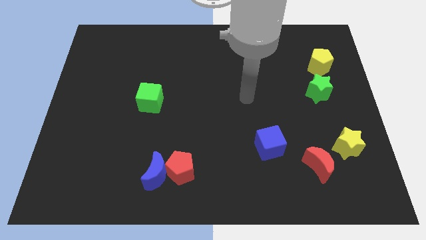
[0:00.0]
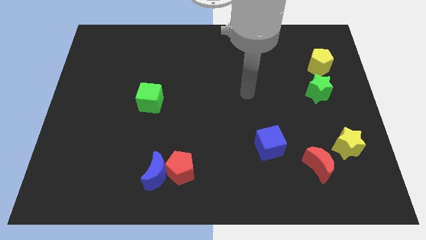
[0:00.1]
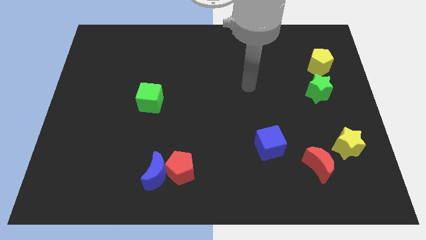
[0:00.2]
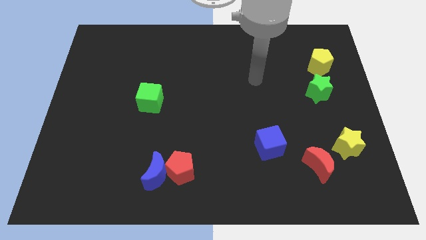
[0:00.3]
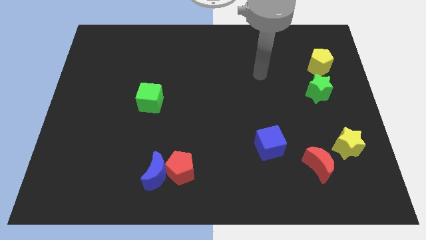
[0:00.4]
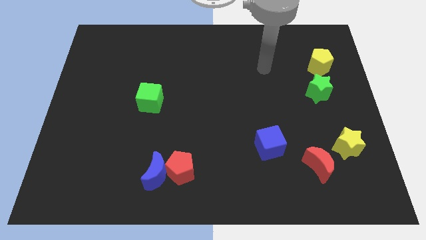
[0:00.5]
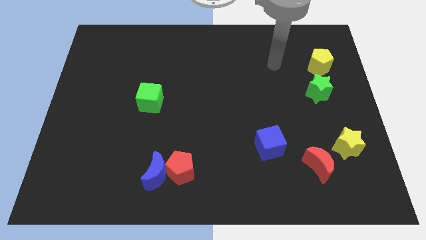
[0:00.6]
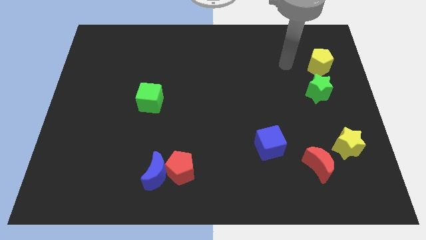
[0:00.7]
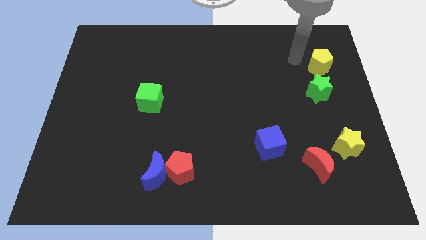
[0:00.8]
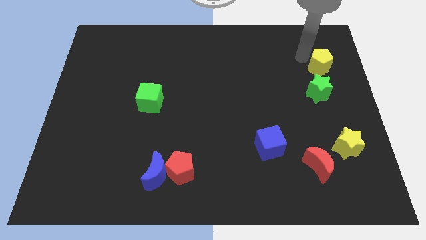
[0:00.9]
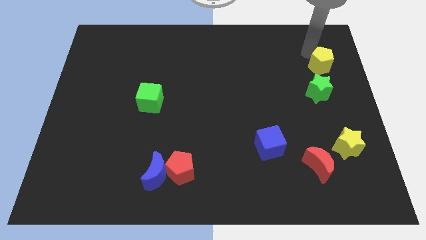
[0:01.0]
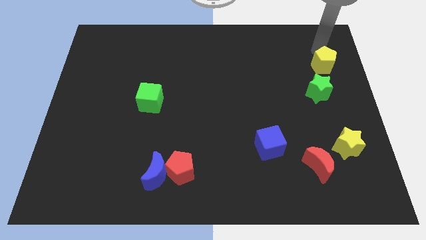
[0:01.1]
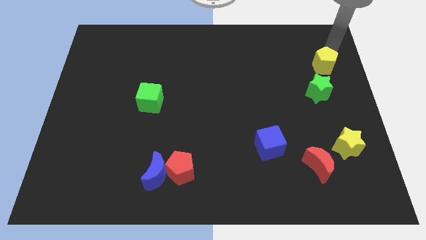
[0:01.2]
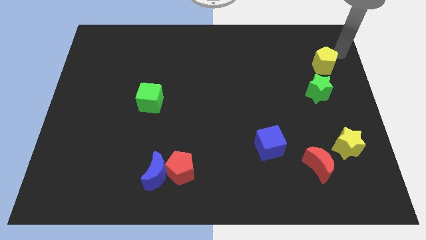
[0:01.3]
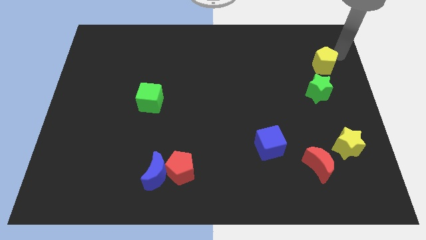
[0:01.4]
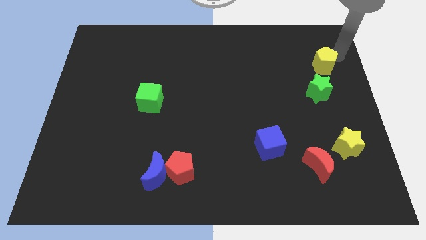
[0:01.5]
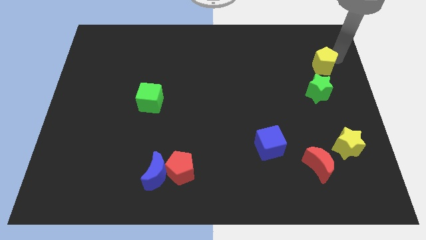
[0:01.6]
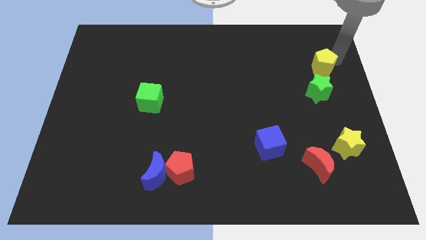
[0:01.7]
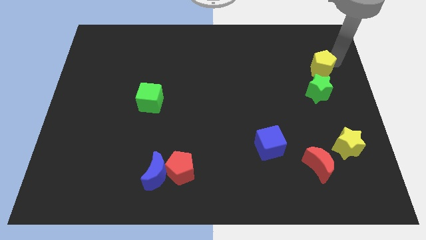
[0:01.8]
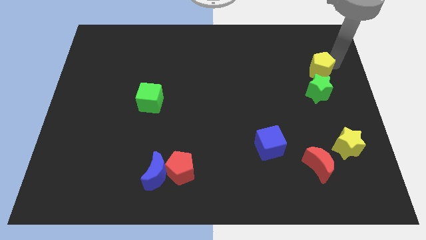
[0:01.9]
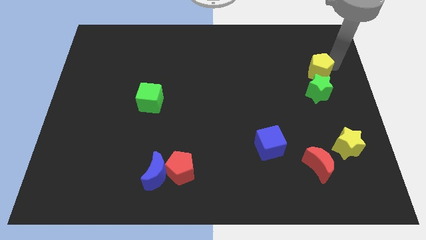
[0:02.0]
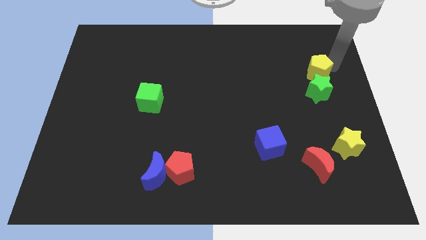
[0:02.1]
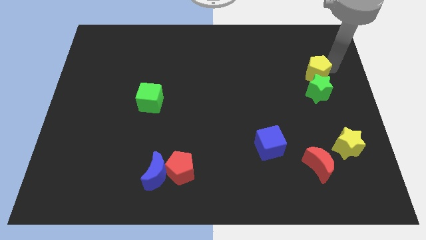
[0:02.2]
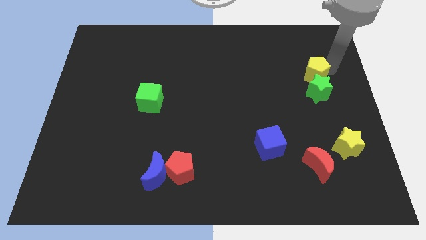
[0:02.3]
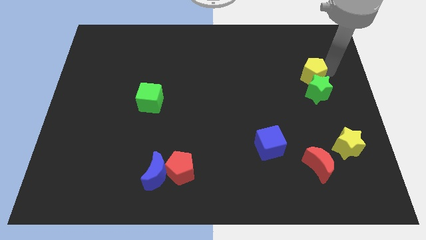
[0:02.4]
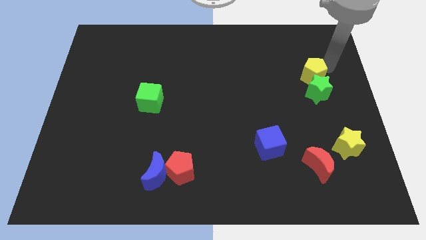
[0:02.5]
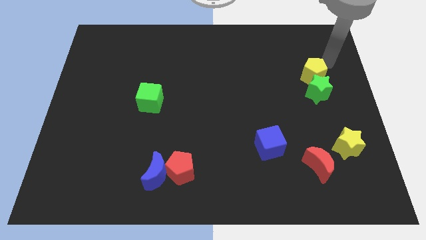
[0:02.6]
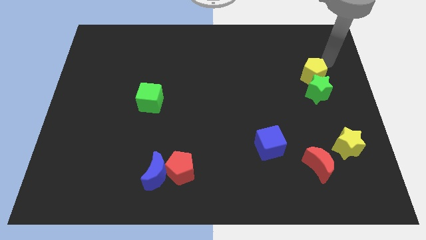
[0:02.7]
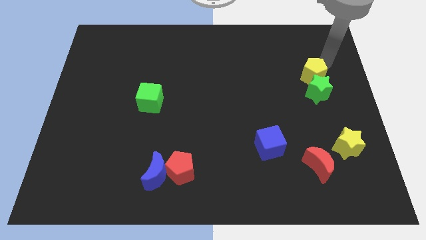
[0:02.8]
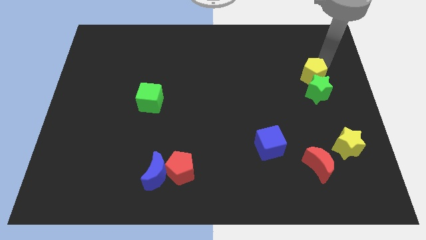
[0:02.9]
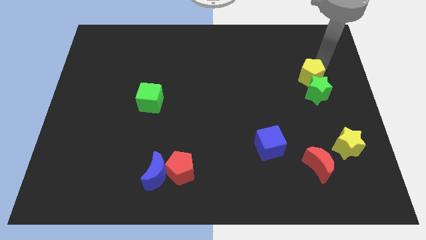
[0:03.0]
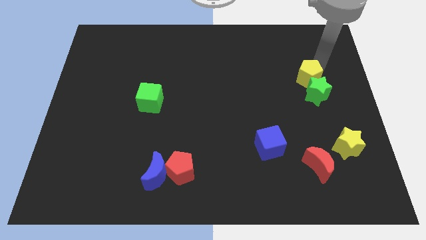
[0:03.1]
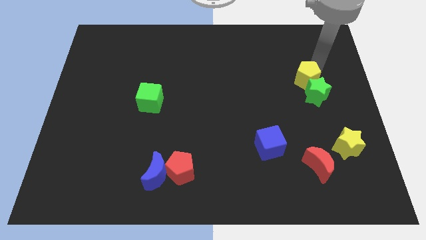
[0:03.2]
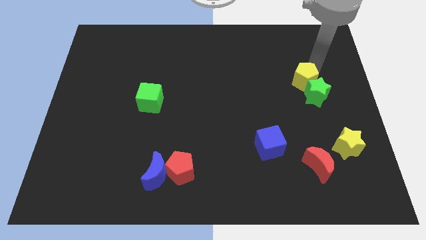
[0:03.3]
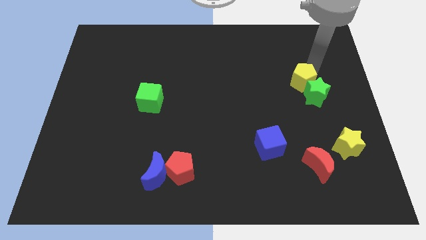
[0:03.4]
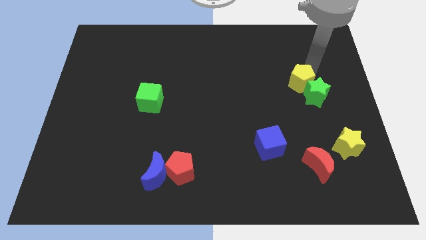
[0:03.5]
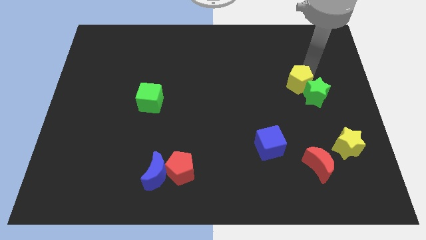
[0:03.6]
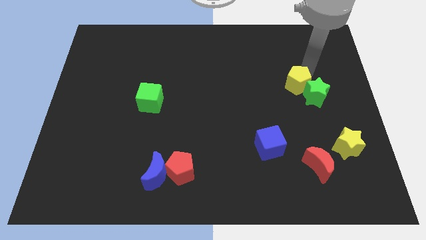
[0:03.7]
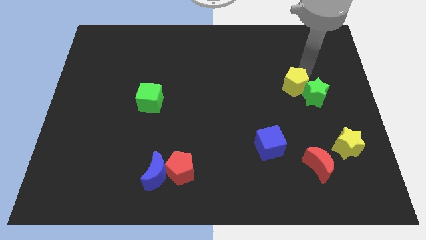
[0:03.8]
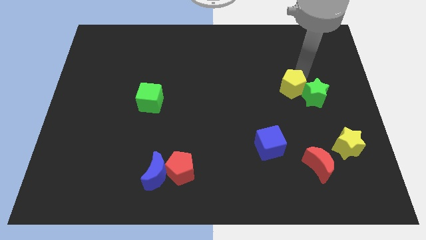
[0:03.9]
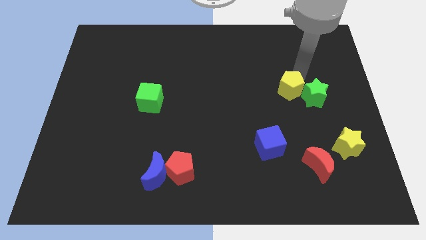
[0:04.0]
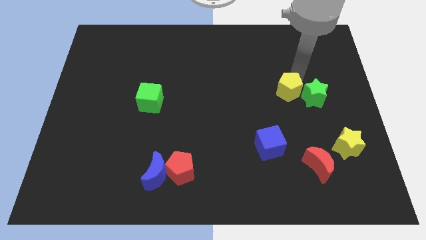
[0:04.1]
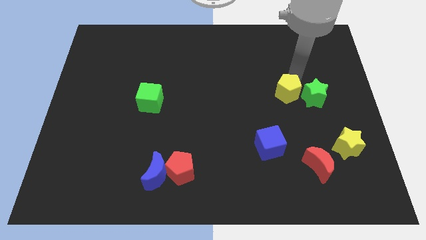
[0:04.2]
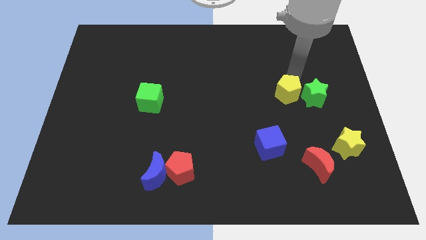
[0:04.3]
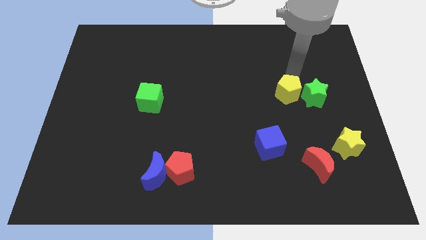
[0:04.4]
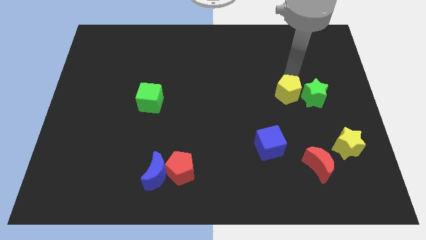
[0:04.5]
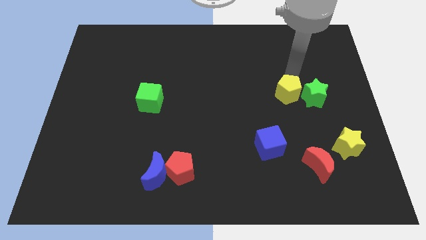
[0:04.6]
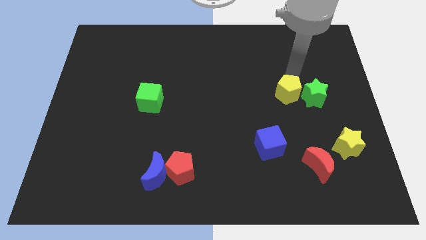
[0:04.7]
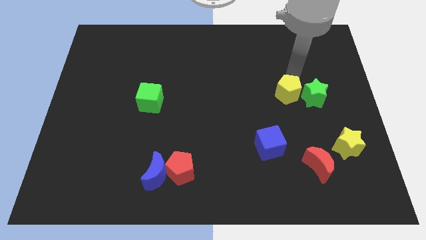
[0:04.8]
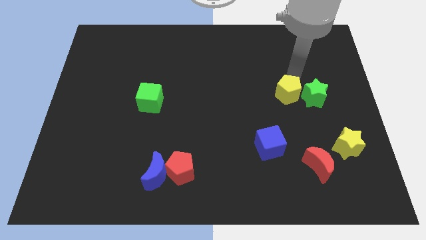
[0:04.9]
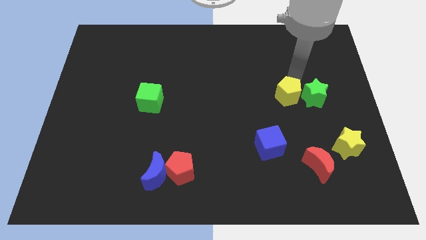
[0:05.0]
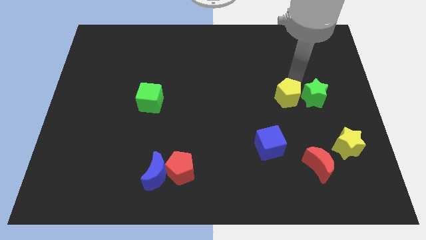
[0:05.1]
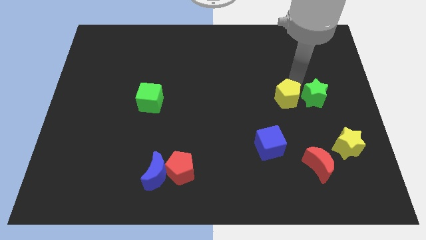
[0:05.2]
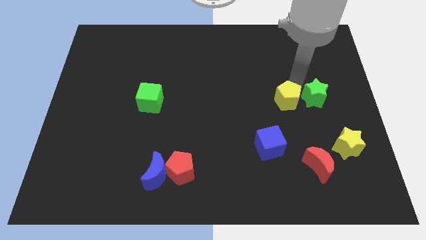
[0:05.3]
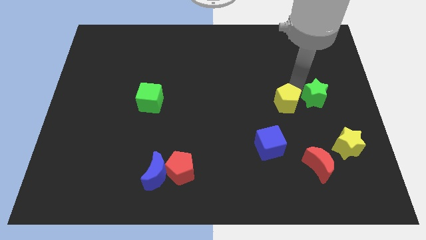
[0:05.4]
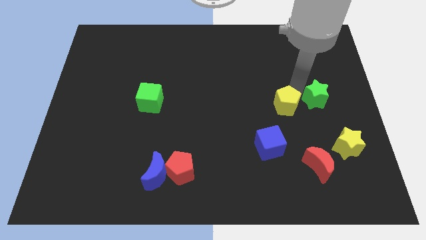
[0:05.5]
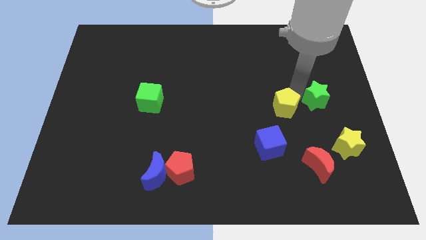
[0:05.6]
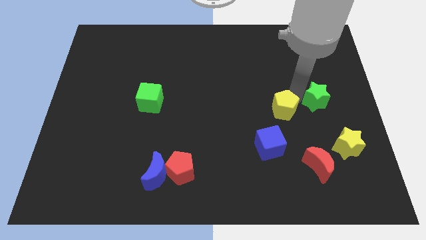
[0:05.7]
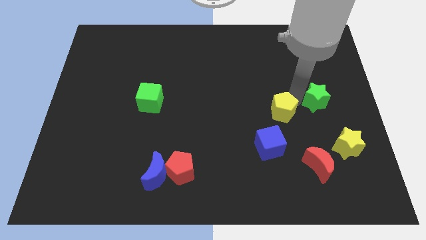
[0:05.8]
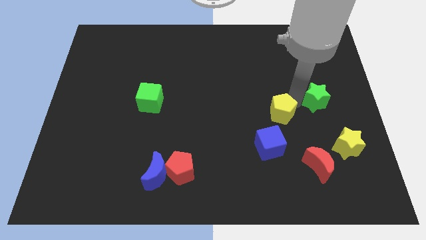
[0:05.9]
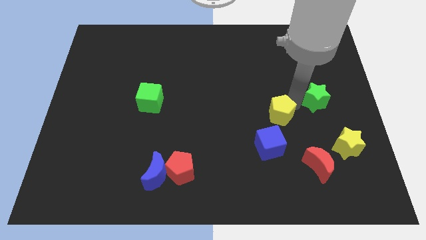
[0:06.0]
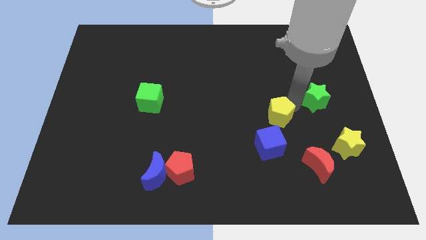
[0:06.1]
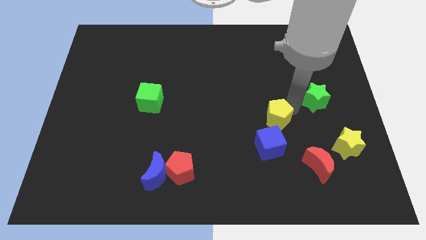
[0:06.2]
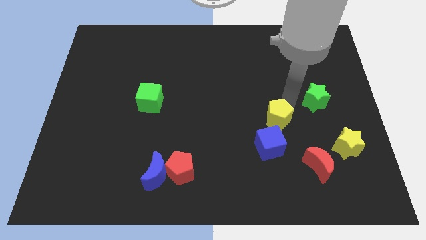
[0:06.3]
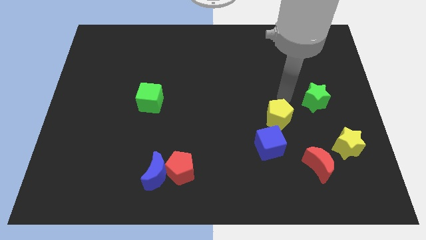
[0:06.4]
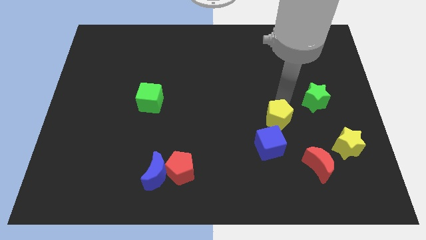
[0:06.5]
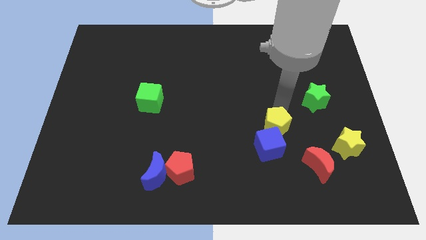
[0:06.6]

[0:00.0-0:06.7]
push the yellow pentagon next to the blue cube

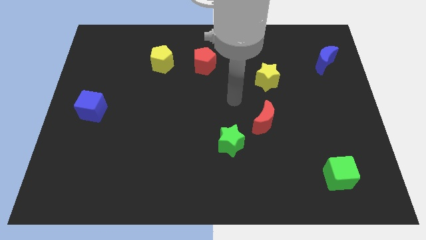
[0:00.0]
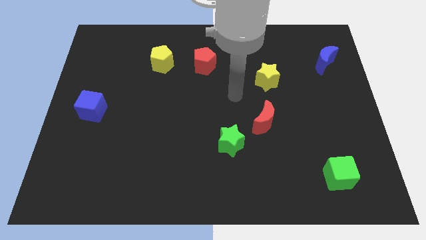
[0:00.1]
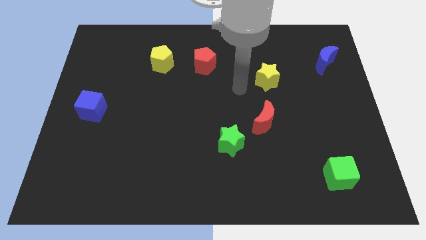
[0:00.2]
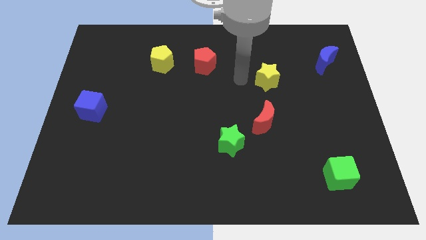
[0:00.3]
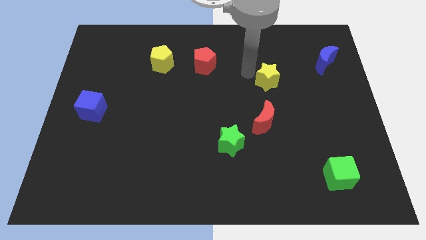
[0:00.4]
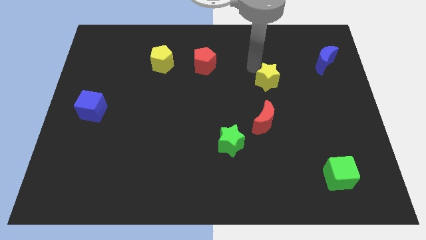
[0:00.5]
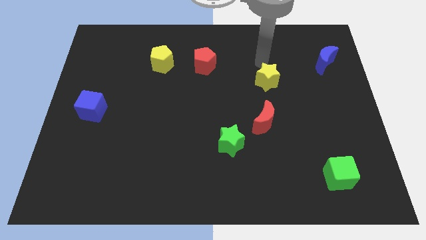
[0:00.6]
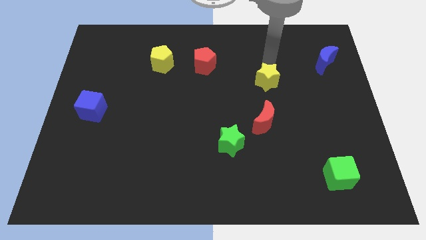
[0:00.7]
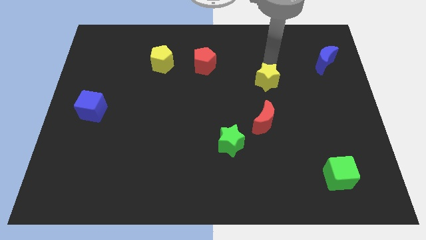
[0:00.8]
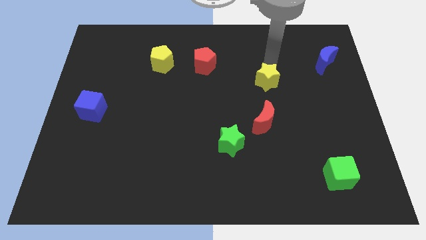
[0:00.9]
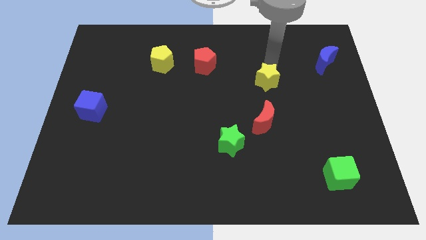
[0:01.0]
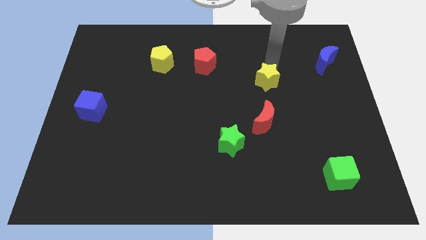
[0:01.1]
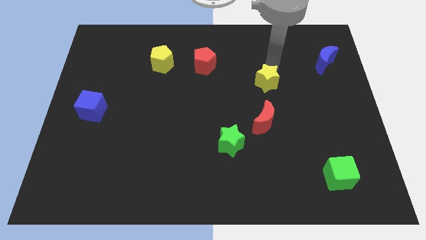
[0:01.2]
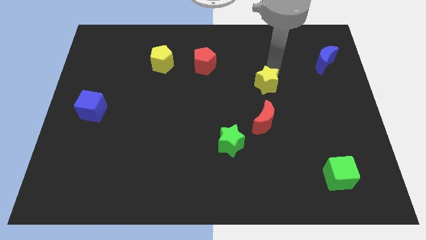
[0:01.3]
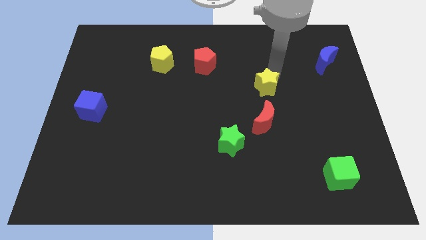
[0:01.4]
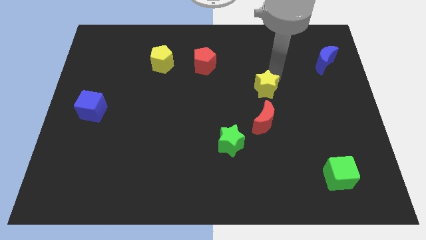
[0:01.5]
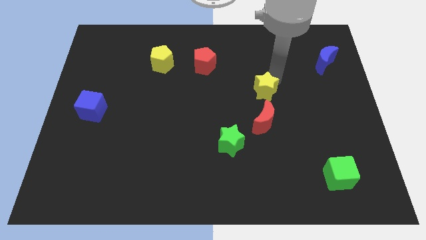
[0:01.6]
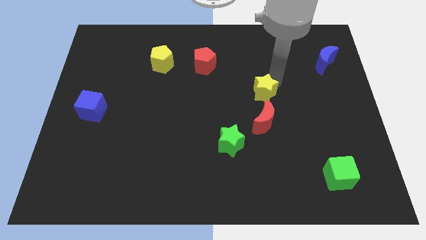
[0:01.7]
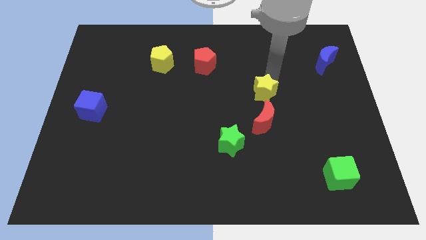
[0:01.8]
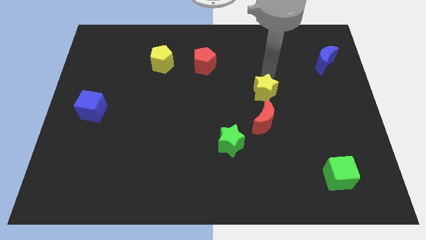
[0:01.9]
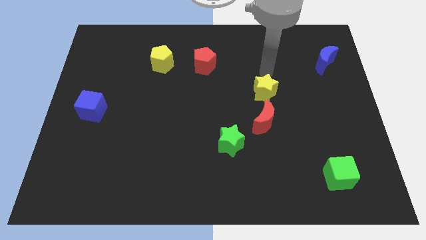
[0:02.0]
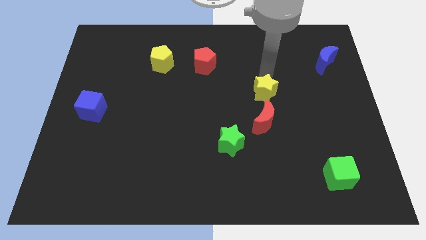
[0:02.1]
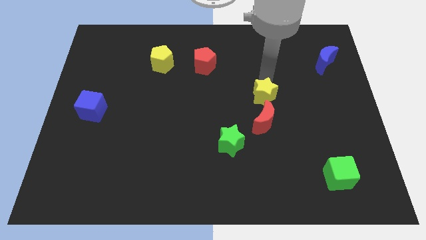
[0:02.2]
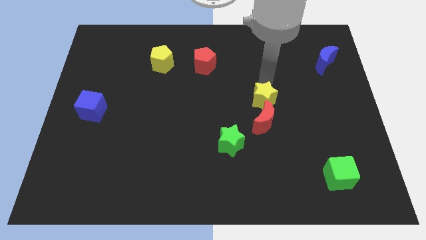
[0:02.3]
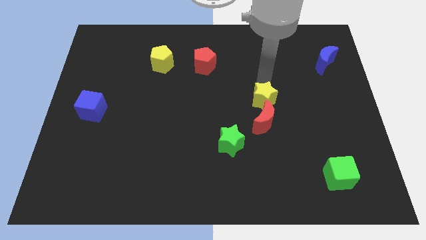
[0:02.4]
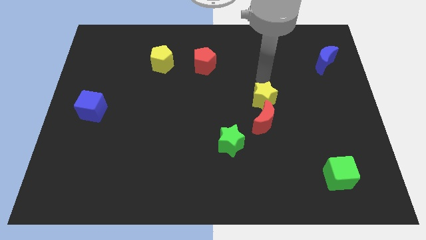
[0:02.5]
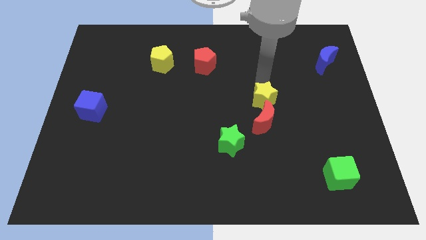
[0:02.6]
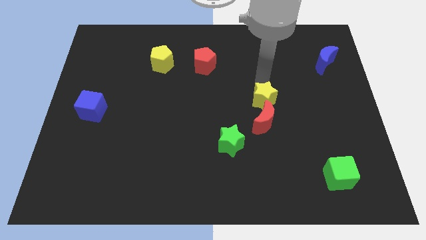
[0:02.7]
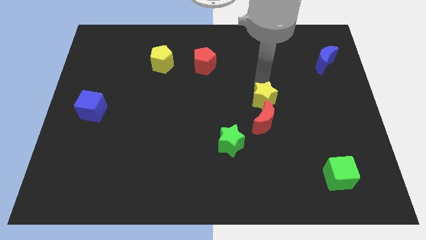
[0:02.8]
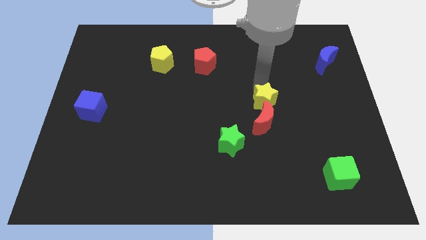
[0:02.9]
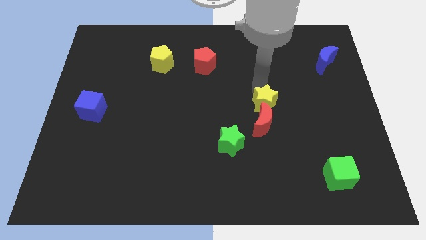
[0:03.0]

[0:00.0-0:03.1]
push the yellow star next to the red moon
